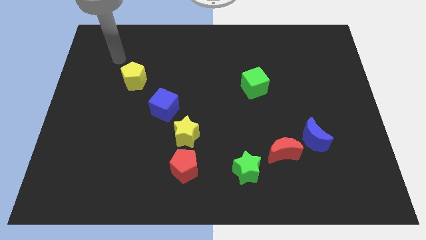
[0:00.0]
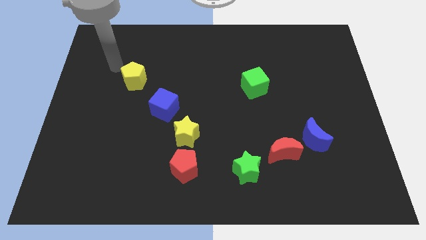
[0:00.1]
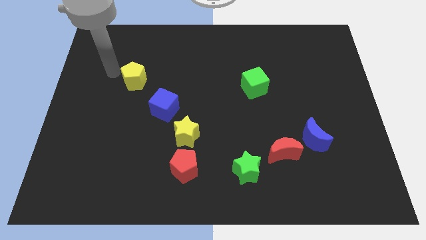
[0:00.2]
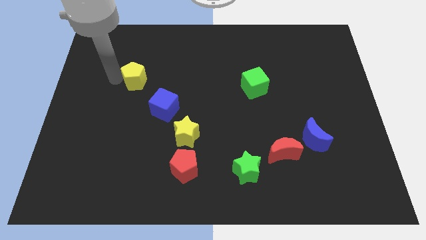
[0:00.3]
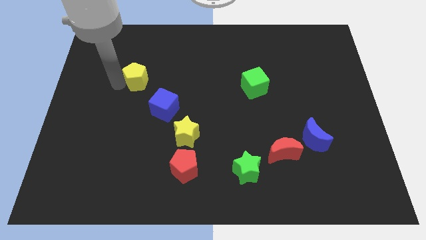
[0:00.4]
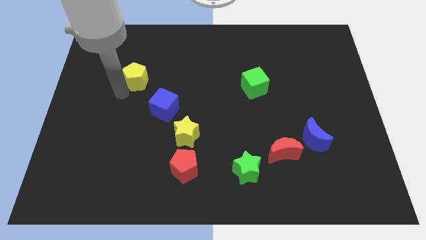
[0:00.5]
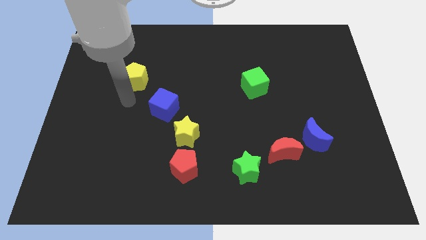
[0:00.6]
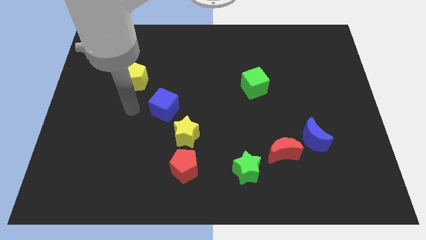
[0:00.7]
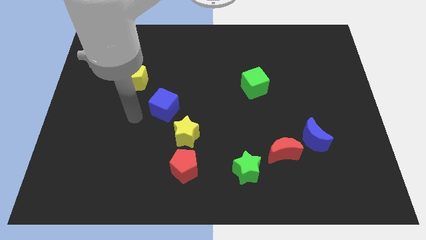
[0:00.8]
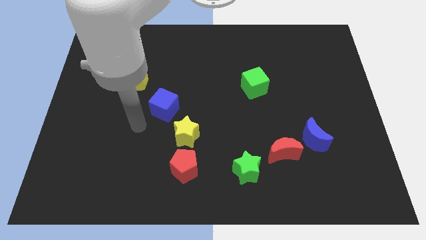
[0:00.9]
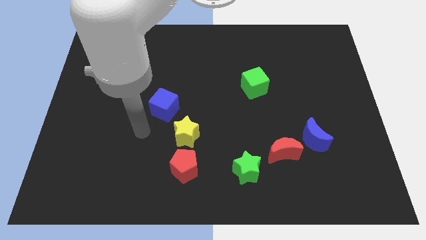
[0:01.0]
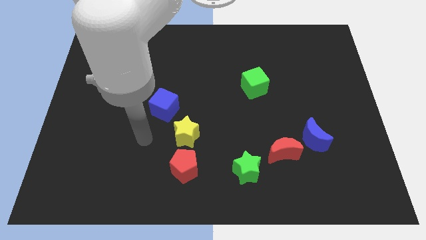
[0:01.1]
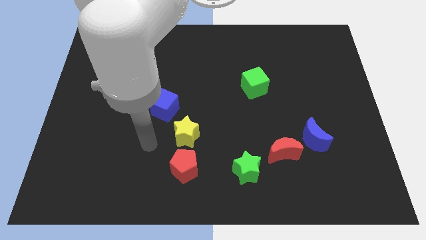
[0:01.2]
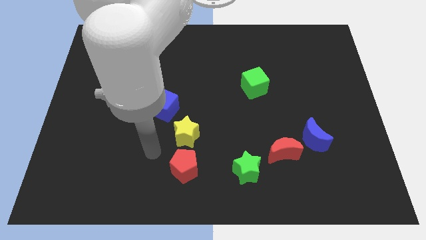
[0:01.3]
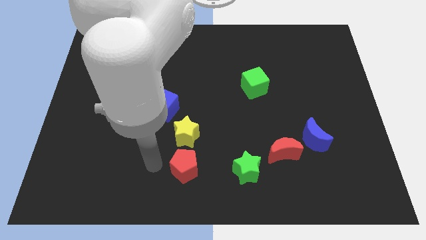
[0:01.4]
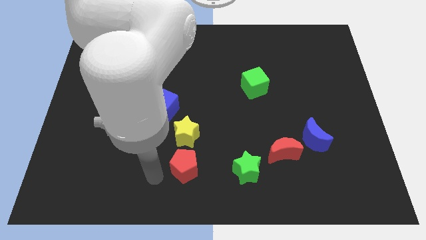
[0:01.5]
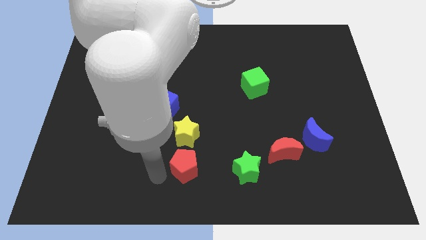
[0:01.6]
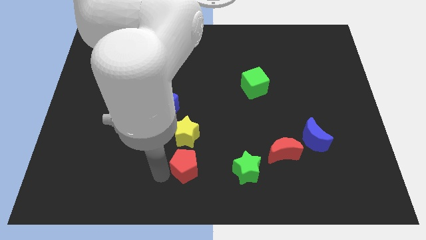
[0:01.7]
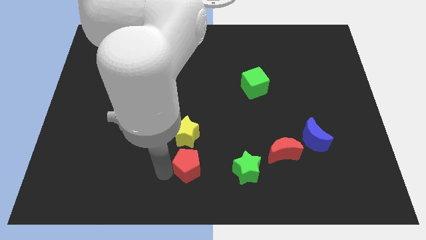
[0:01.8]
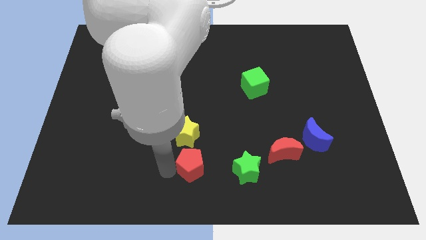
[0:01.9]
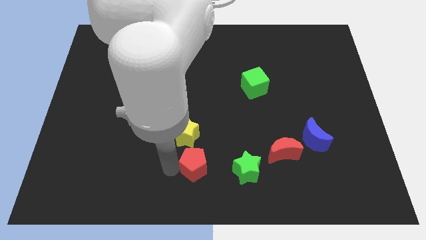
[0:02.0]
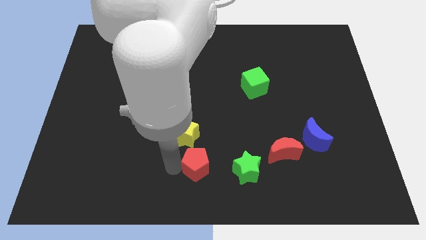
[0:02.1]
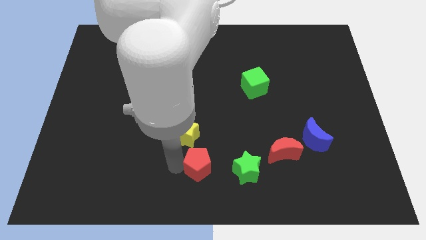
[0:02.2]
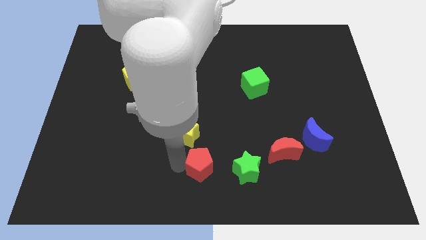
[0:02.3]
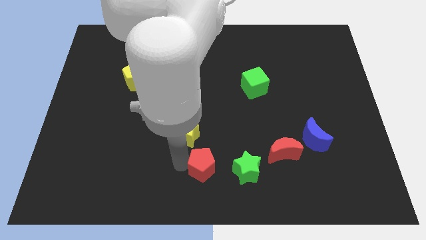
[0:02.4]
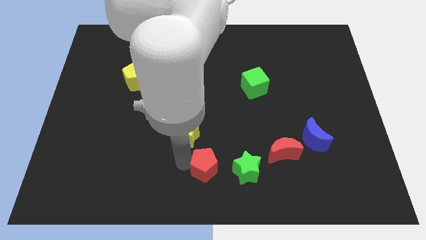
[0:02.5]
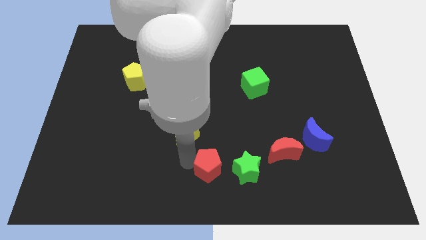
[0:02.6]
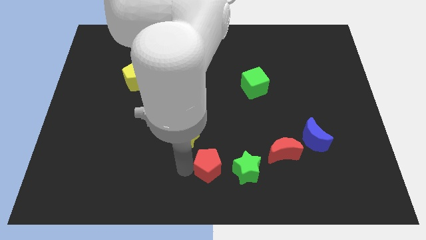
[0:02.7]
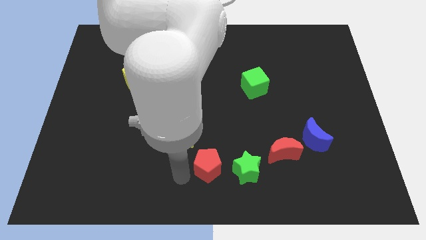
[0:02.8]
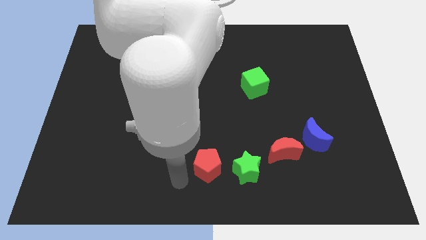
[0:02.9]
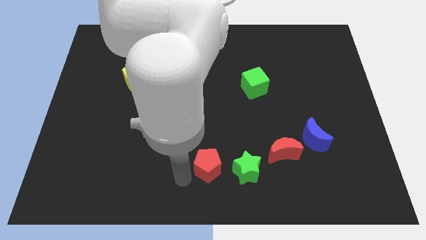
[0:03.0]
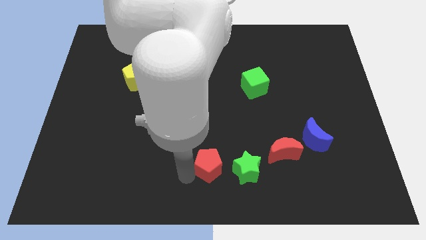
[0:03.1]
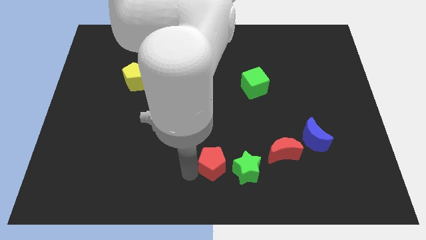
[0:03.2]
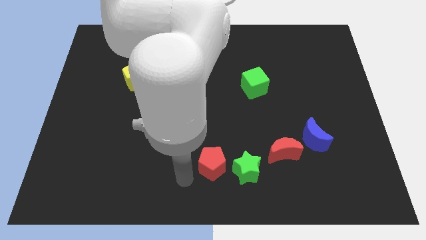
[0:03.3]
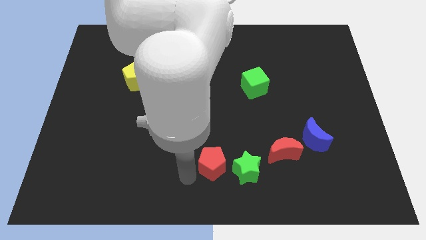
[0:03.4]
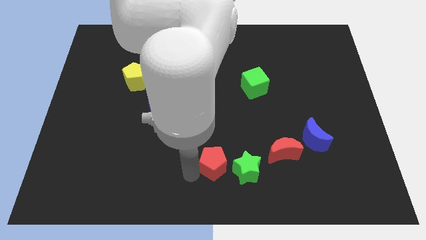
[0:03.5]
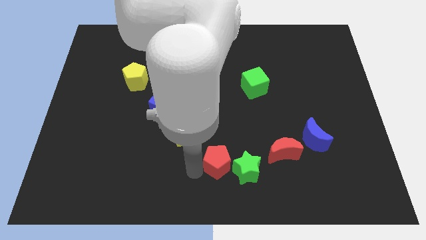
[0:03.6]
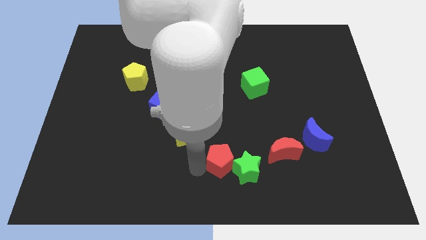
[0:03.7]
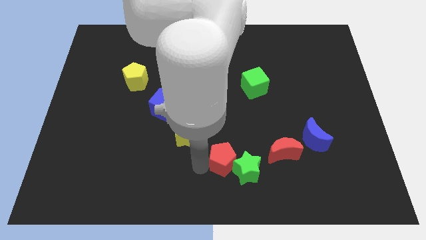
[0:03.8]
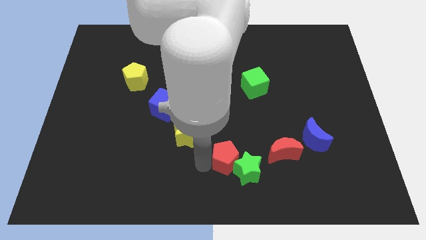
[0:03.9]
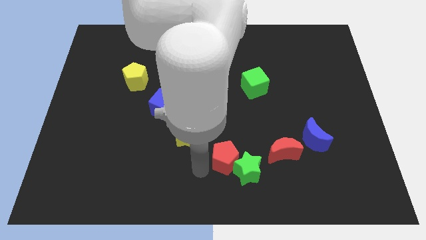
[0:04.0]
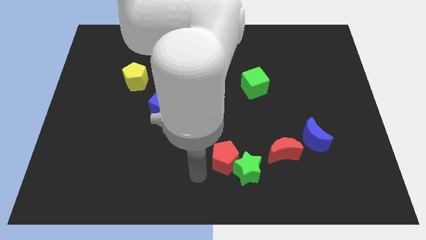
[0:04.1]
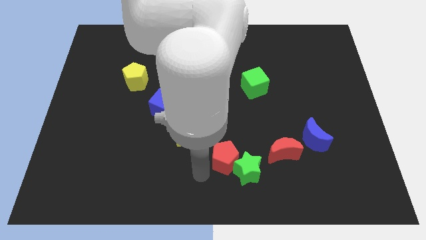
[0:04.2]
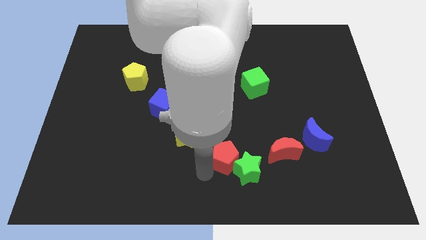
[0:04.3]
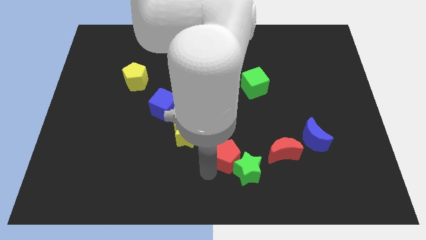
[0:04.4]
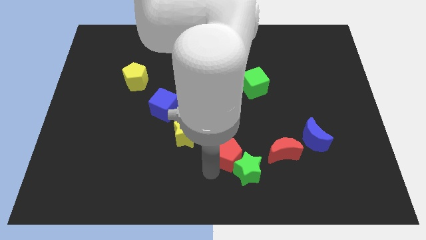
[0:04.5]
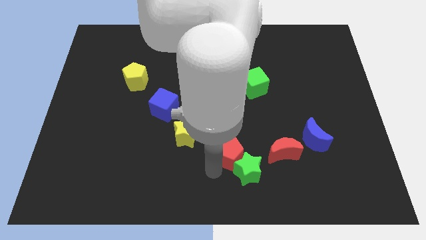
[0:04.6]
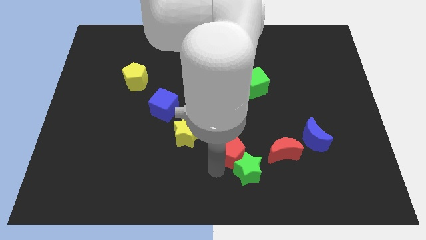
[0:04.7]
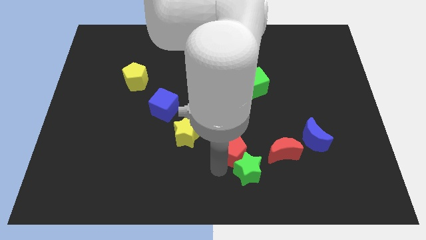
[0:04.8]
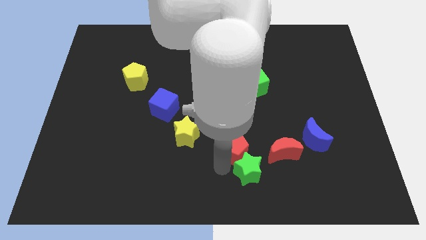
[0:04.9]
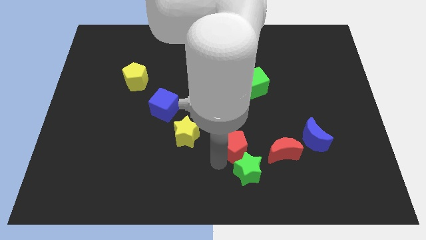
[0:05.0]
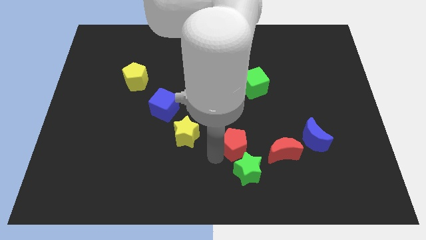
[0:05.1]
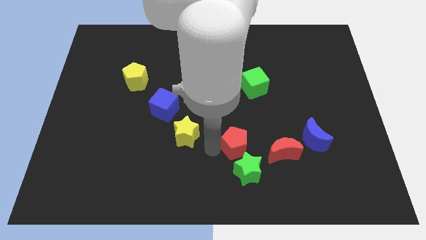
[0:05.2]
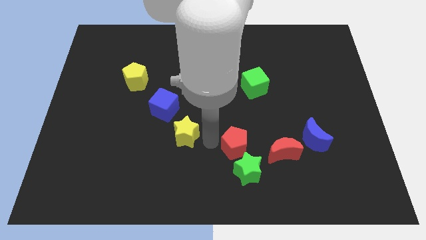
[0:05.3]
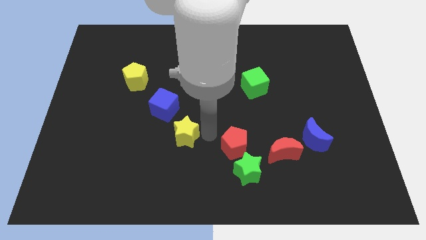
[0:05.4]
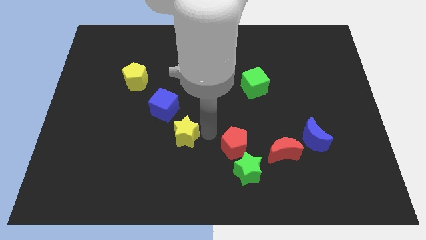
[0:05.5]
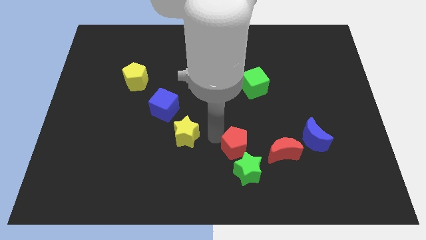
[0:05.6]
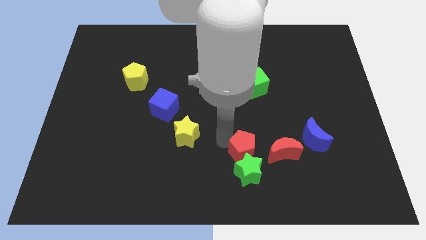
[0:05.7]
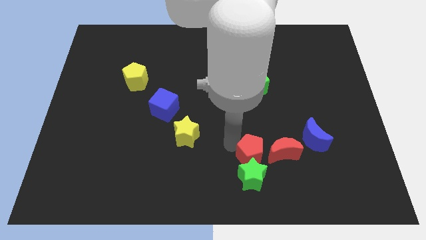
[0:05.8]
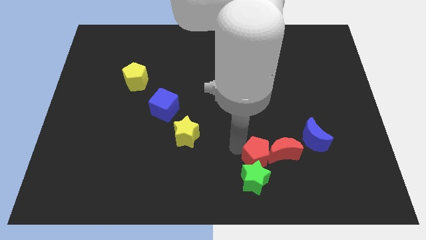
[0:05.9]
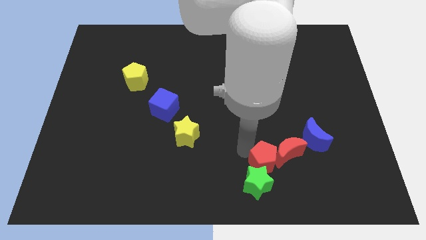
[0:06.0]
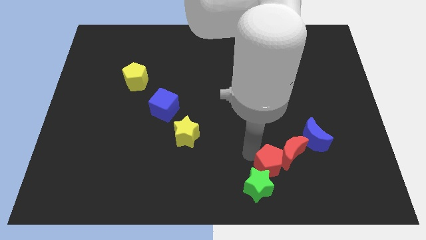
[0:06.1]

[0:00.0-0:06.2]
push the red pentagon to the bottom left side of the blue moon

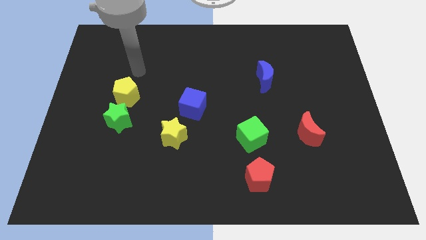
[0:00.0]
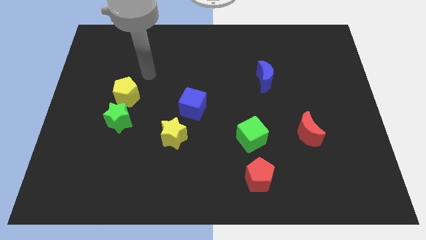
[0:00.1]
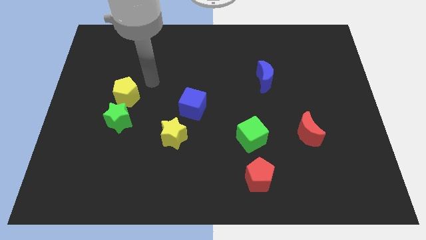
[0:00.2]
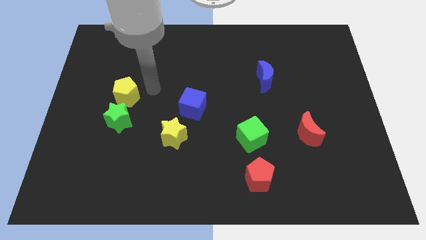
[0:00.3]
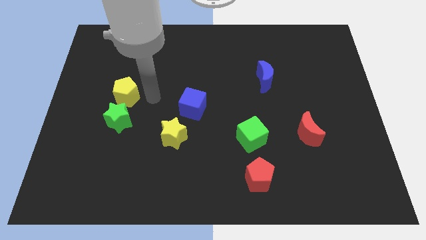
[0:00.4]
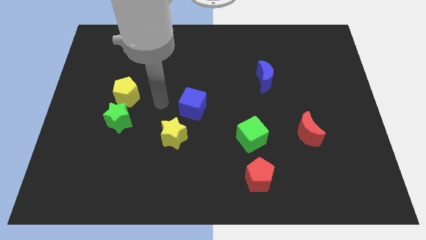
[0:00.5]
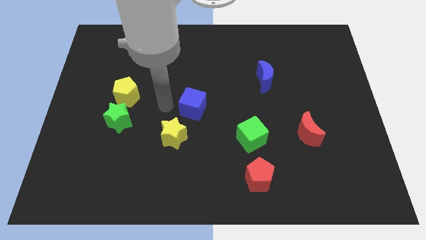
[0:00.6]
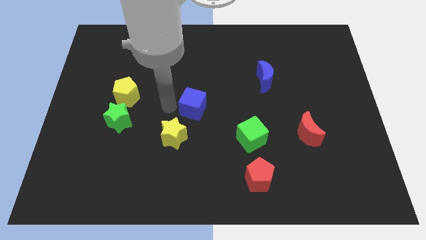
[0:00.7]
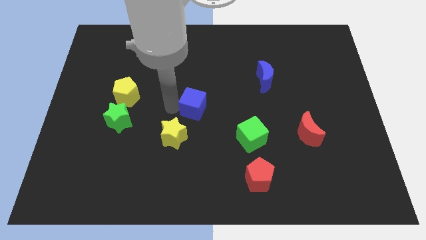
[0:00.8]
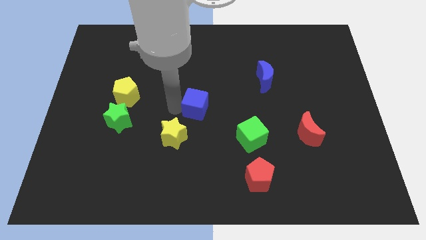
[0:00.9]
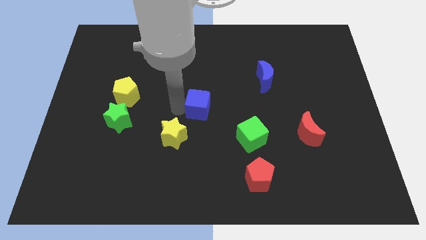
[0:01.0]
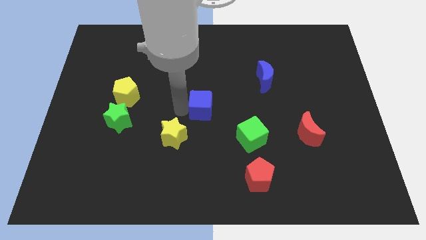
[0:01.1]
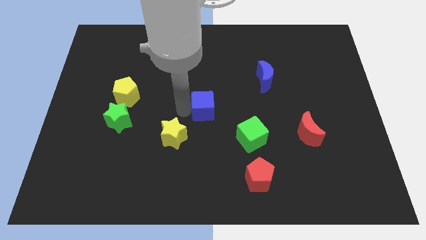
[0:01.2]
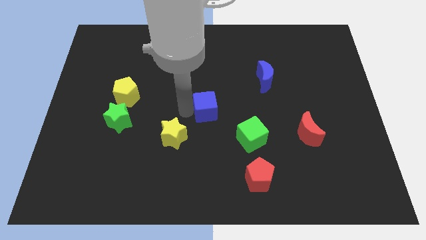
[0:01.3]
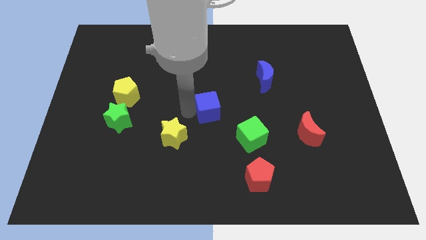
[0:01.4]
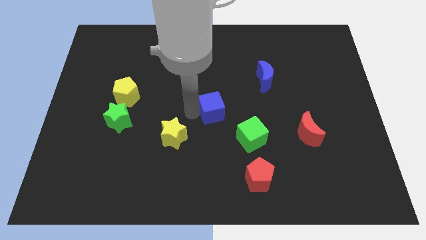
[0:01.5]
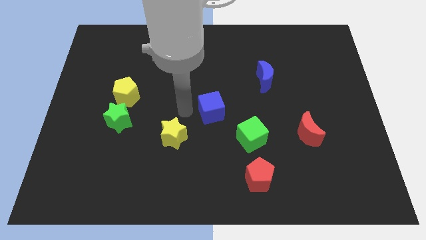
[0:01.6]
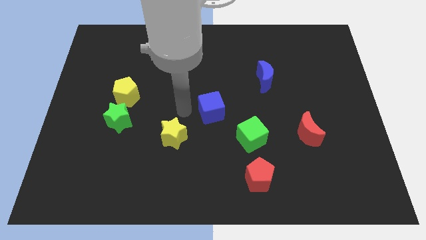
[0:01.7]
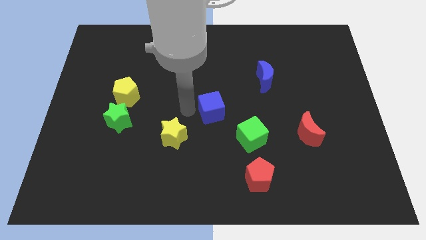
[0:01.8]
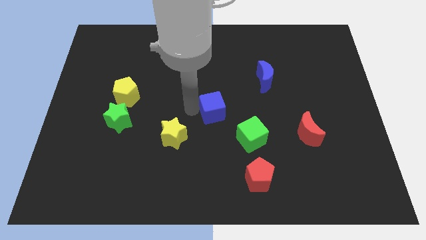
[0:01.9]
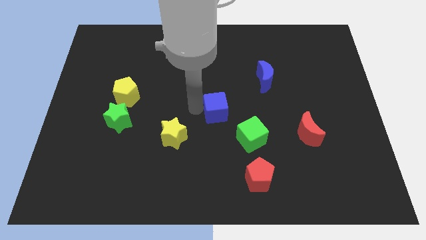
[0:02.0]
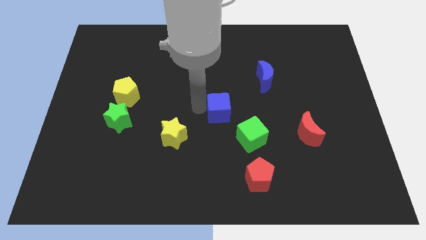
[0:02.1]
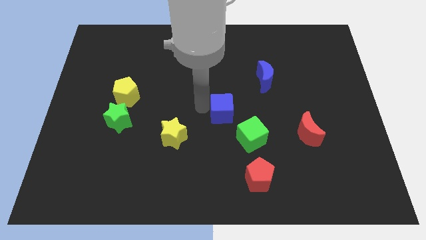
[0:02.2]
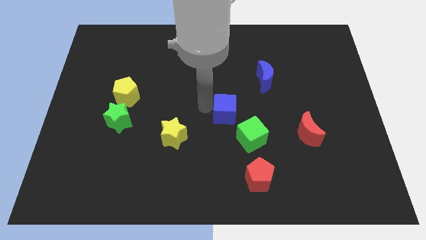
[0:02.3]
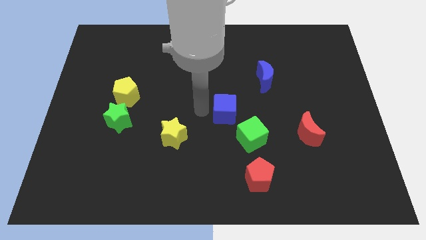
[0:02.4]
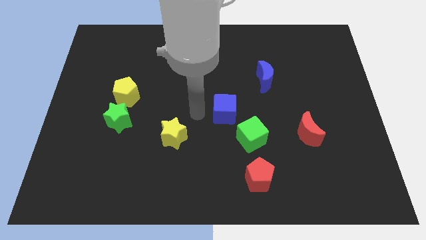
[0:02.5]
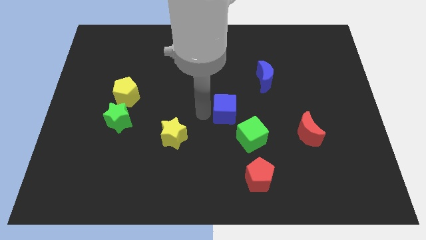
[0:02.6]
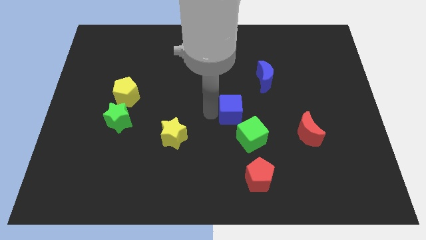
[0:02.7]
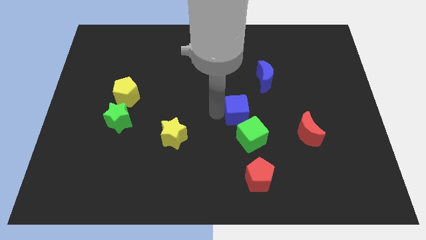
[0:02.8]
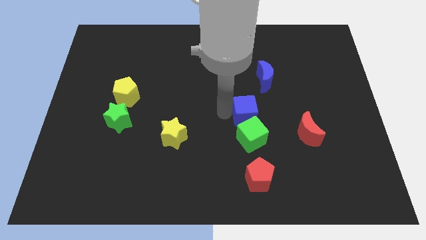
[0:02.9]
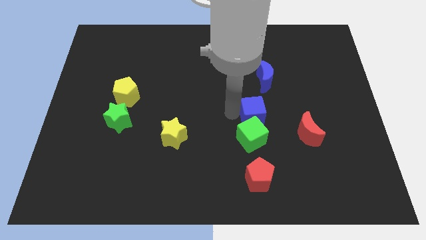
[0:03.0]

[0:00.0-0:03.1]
slide the blue cube below the blue moon
